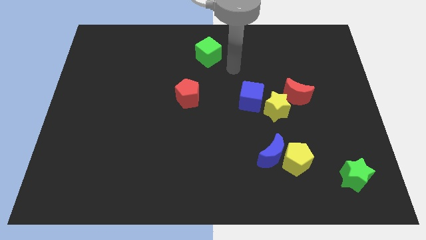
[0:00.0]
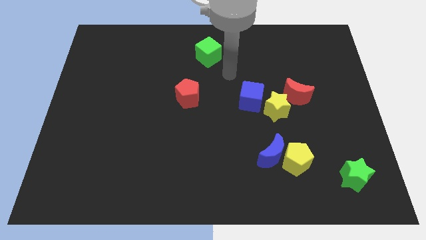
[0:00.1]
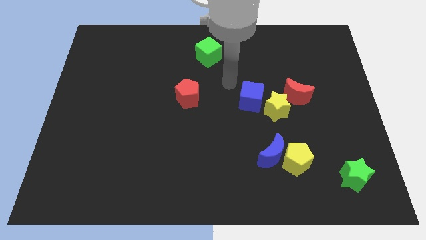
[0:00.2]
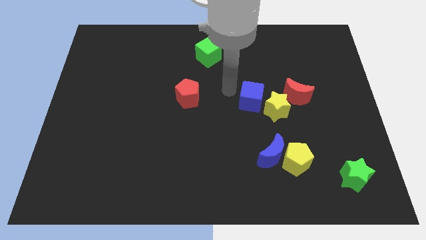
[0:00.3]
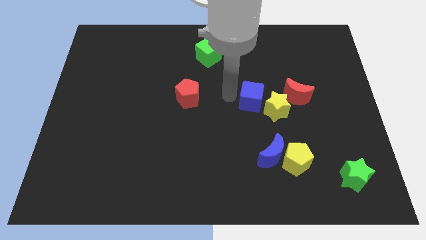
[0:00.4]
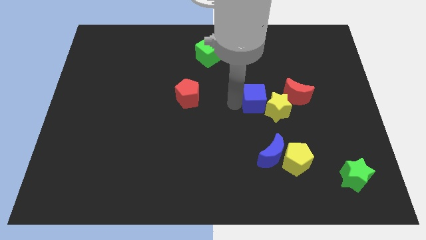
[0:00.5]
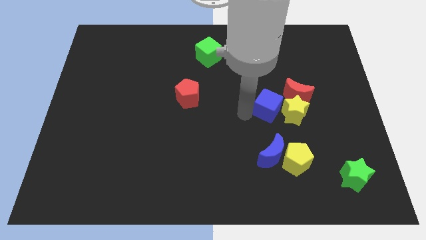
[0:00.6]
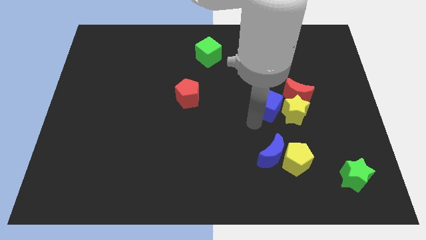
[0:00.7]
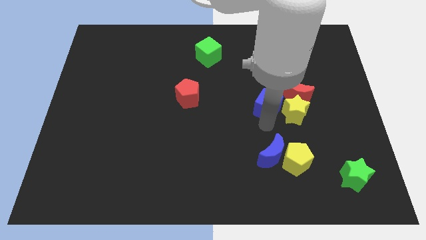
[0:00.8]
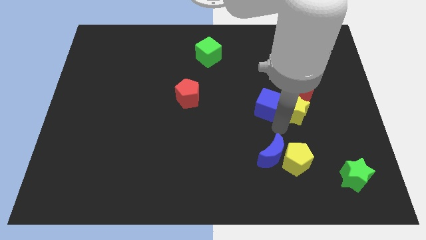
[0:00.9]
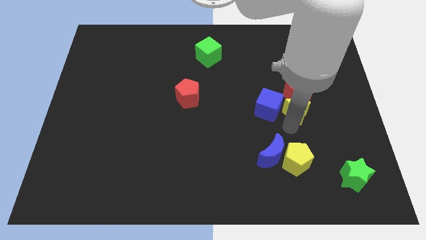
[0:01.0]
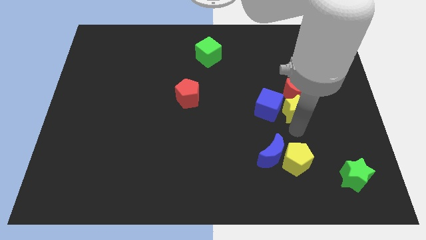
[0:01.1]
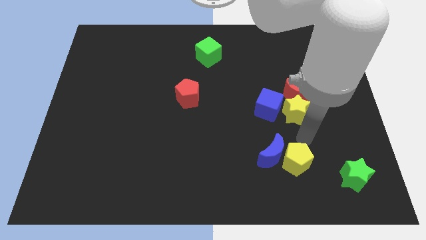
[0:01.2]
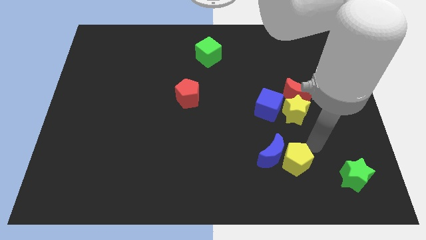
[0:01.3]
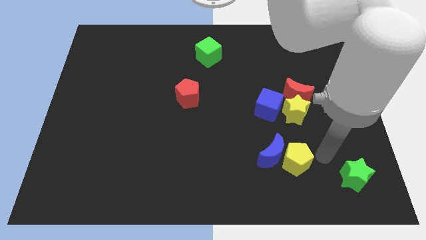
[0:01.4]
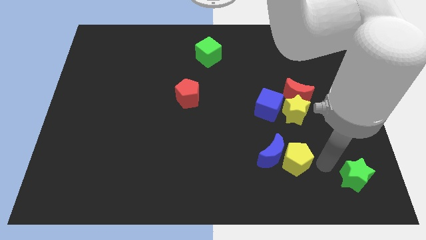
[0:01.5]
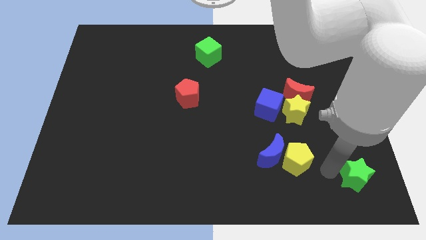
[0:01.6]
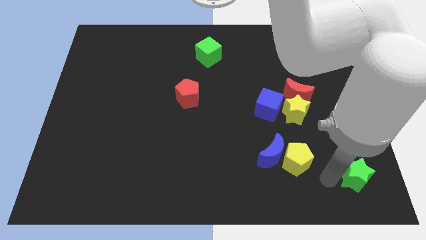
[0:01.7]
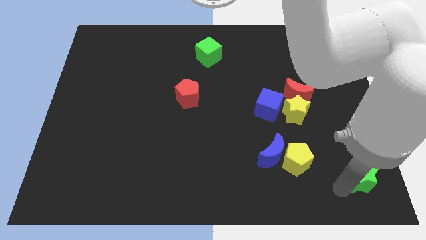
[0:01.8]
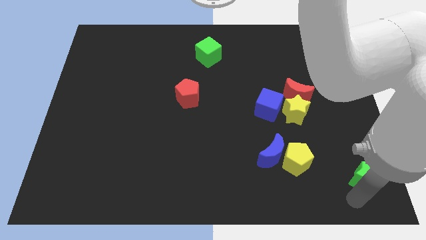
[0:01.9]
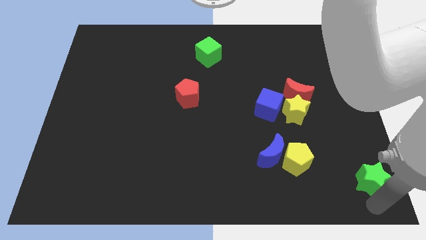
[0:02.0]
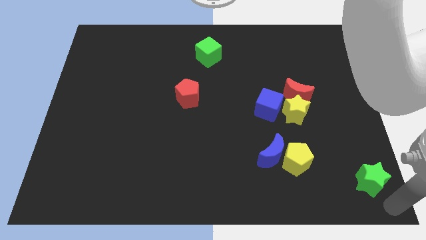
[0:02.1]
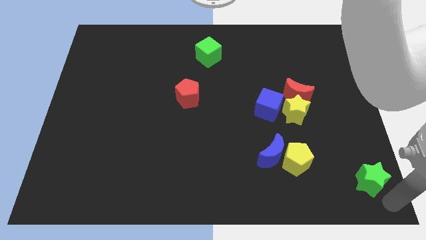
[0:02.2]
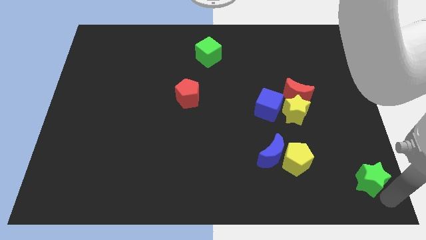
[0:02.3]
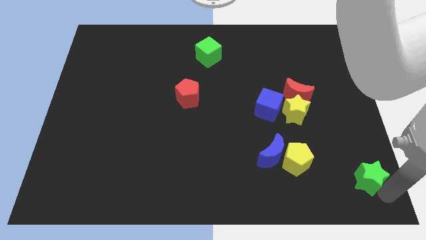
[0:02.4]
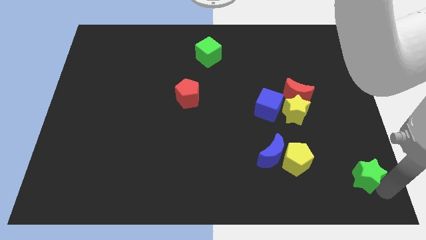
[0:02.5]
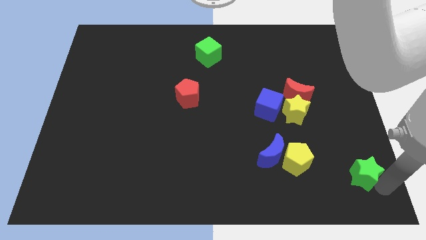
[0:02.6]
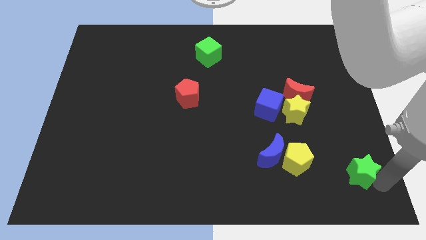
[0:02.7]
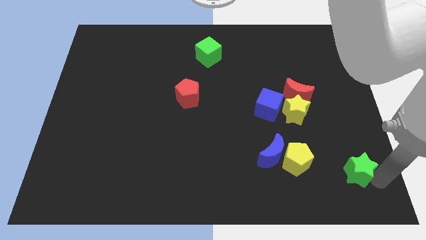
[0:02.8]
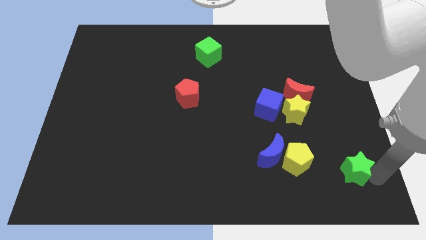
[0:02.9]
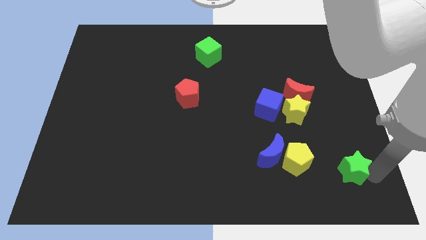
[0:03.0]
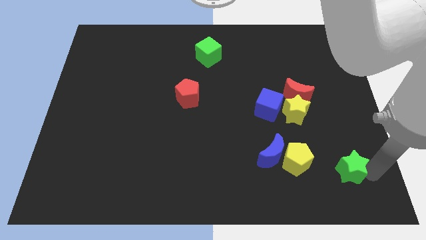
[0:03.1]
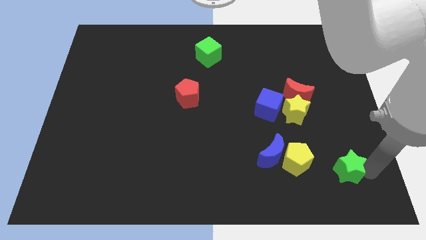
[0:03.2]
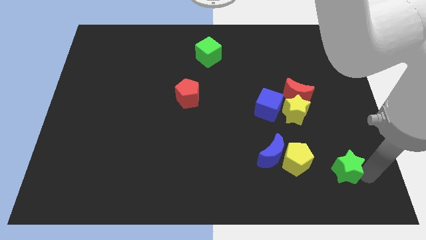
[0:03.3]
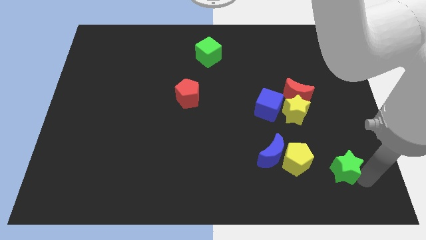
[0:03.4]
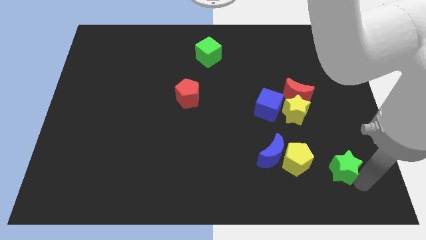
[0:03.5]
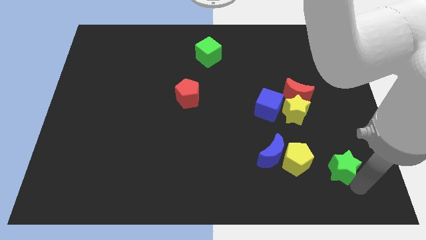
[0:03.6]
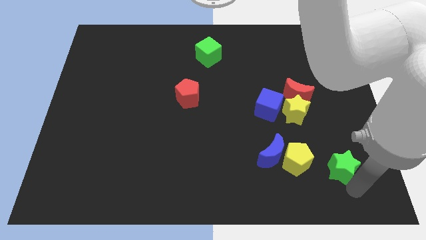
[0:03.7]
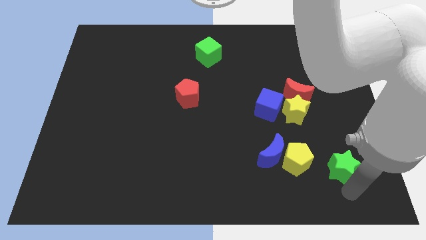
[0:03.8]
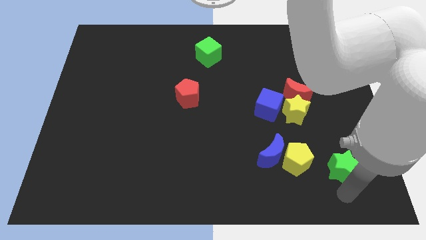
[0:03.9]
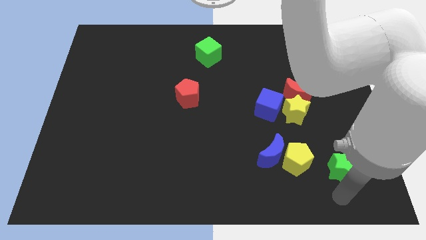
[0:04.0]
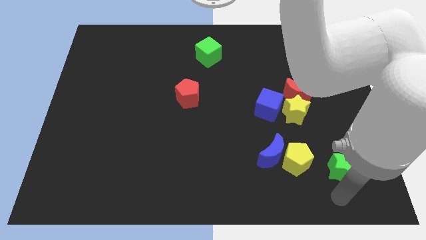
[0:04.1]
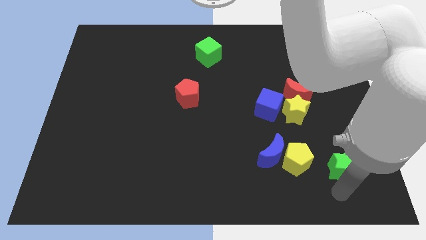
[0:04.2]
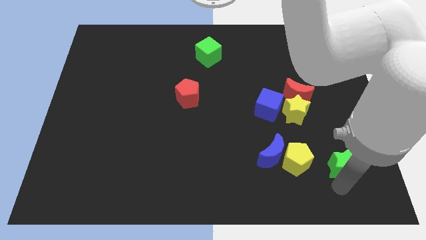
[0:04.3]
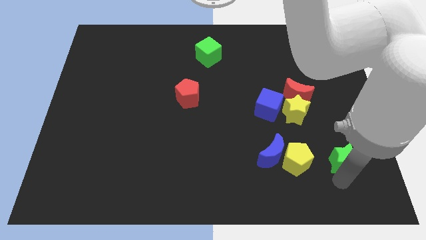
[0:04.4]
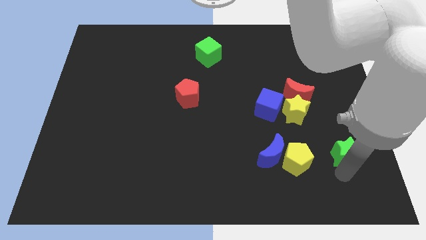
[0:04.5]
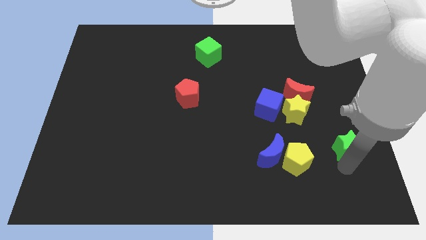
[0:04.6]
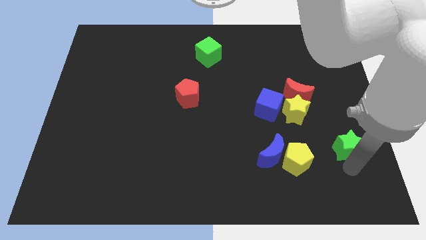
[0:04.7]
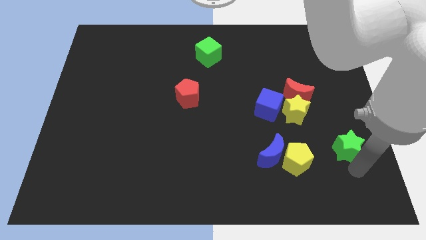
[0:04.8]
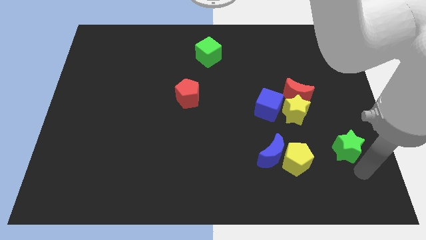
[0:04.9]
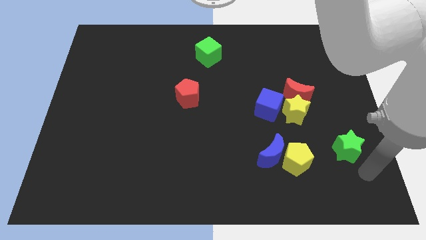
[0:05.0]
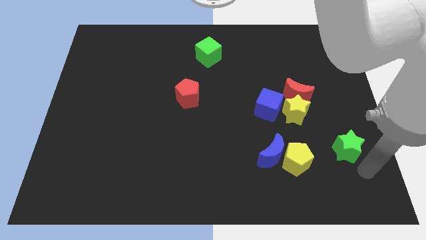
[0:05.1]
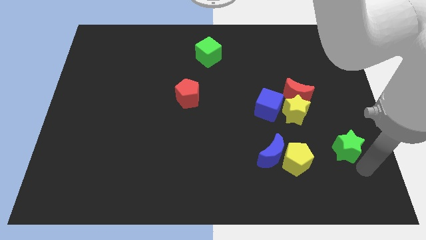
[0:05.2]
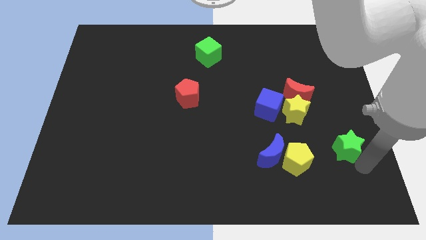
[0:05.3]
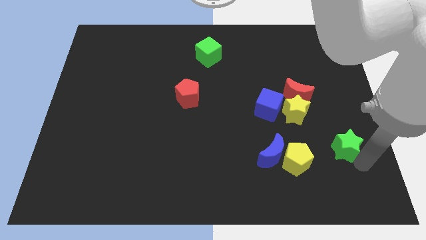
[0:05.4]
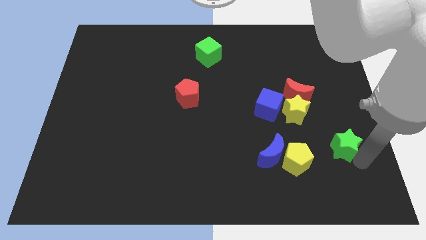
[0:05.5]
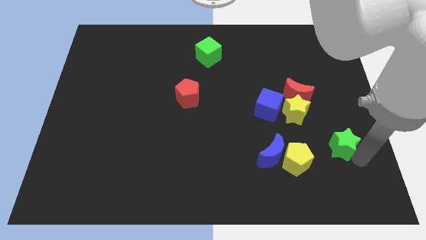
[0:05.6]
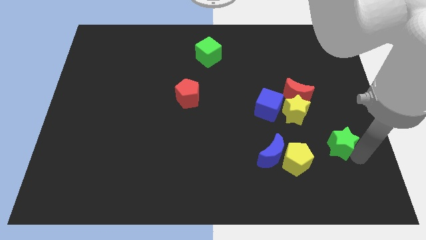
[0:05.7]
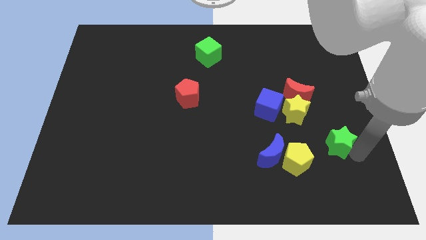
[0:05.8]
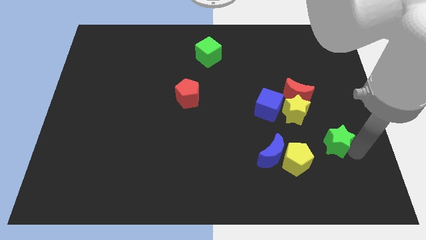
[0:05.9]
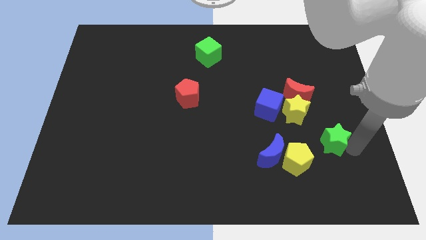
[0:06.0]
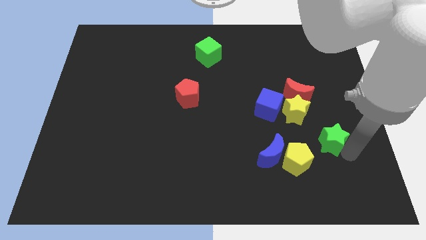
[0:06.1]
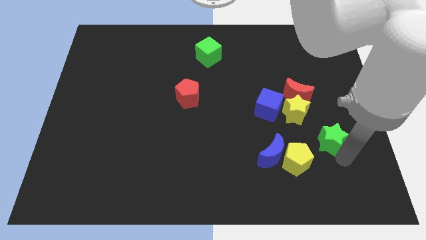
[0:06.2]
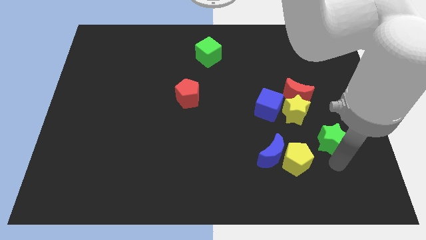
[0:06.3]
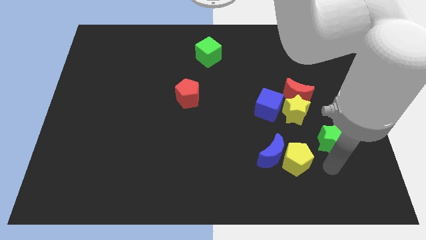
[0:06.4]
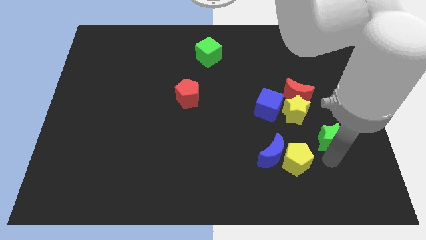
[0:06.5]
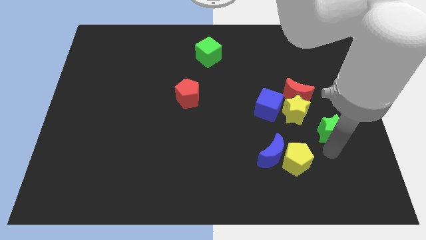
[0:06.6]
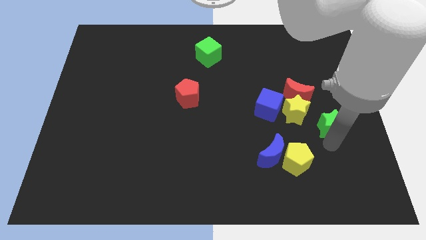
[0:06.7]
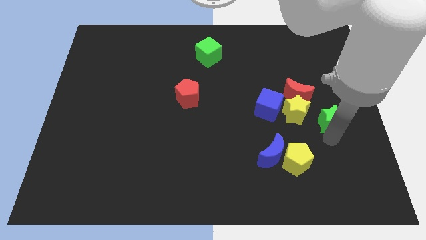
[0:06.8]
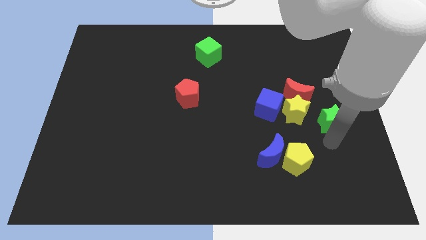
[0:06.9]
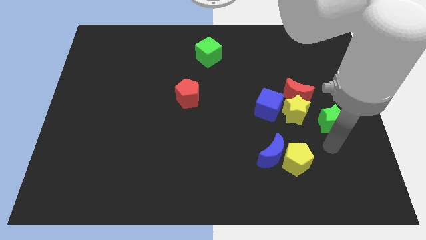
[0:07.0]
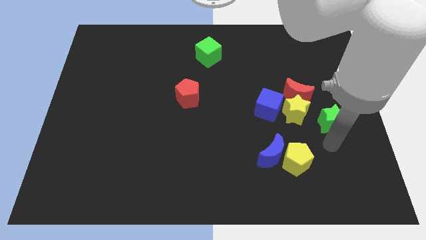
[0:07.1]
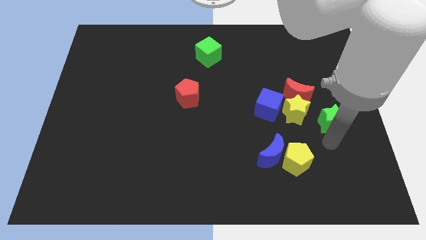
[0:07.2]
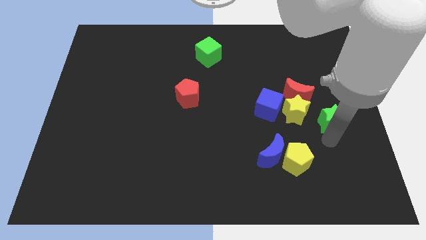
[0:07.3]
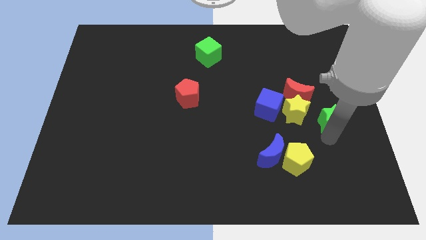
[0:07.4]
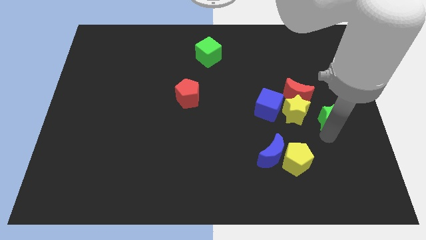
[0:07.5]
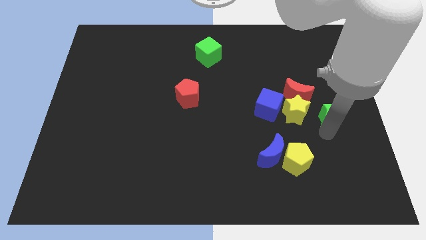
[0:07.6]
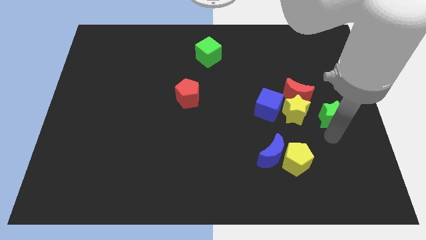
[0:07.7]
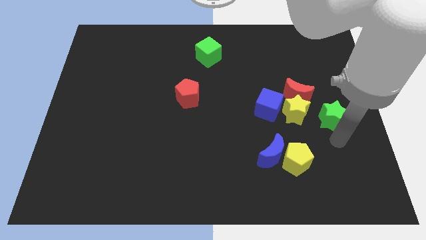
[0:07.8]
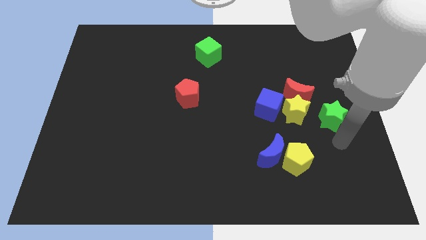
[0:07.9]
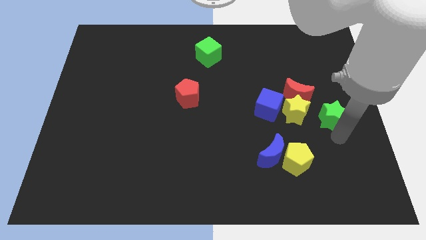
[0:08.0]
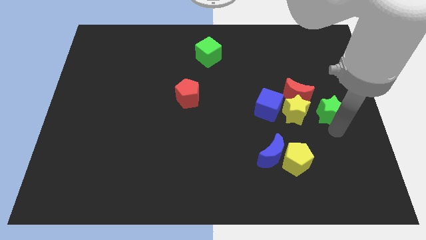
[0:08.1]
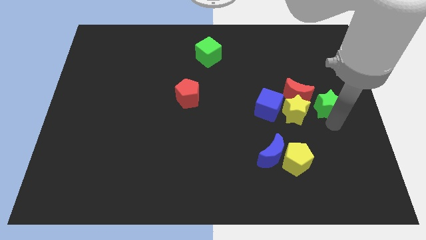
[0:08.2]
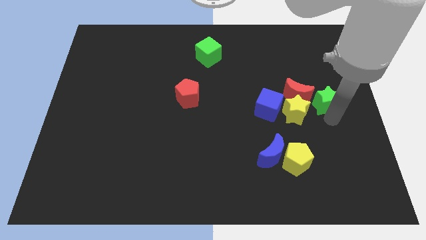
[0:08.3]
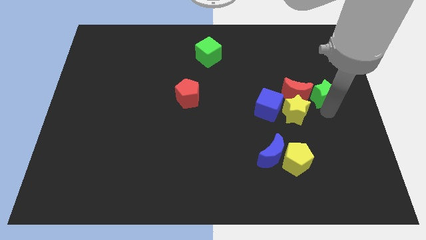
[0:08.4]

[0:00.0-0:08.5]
move the green star upwards
